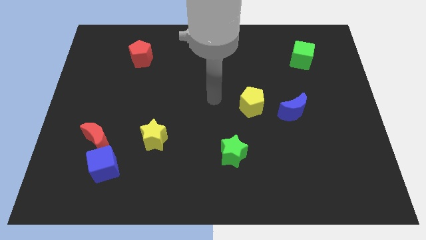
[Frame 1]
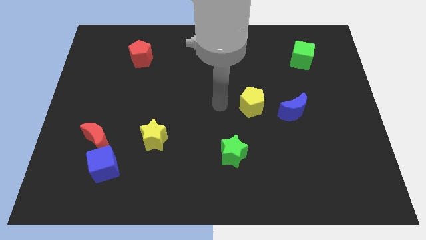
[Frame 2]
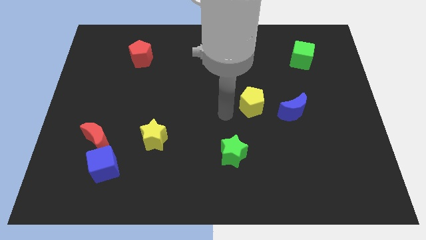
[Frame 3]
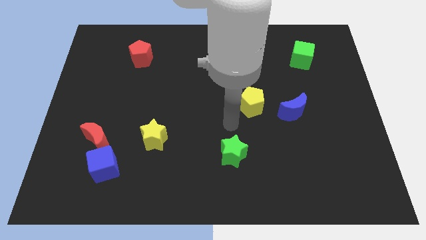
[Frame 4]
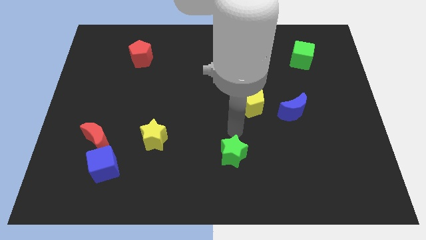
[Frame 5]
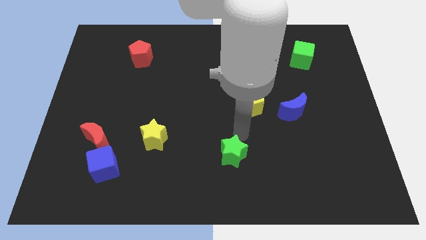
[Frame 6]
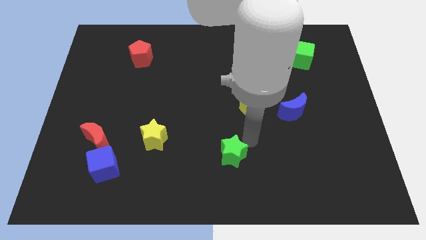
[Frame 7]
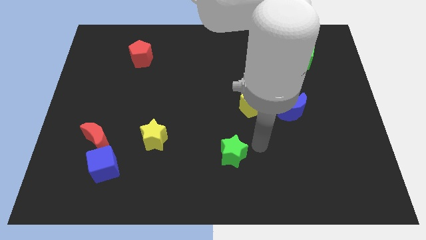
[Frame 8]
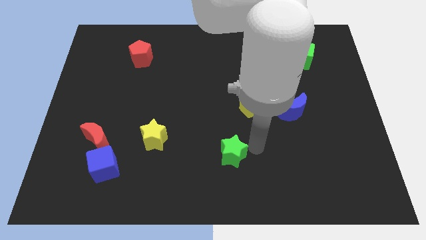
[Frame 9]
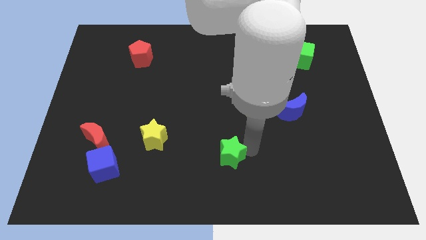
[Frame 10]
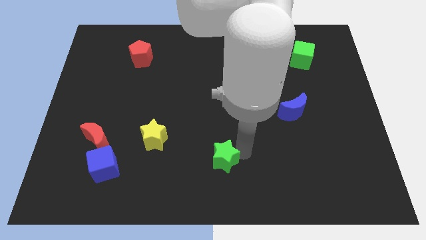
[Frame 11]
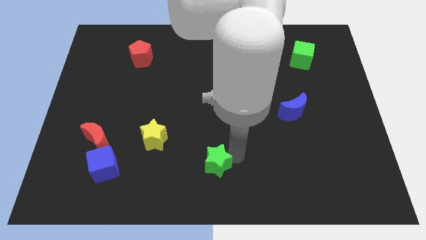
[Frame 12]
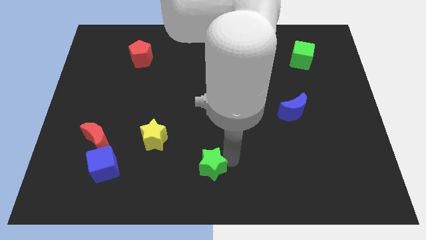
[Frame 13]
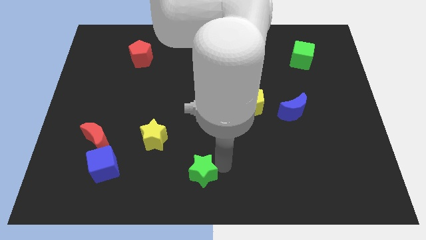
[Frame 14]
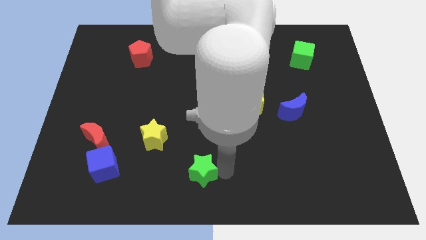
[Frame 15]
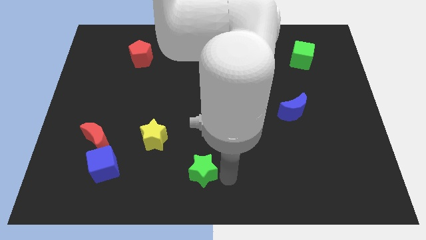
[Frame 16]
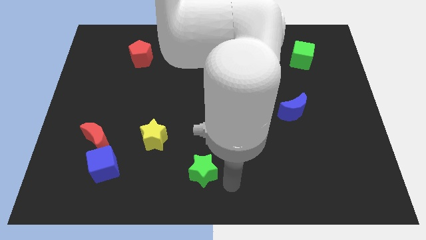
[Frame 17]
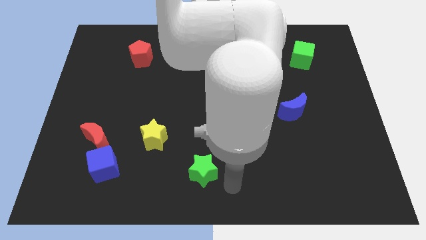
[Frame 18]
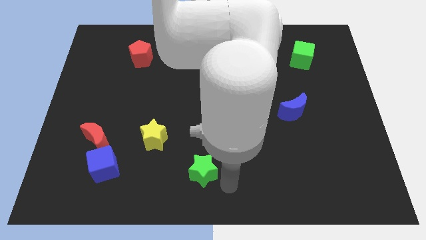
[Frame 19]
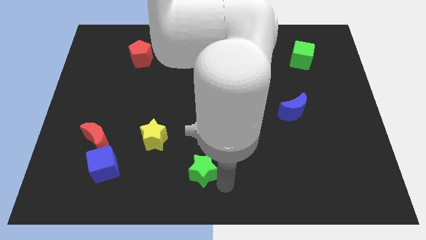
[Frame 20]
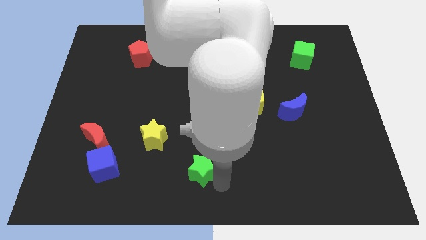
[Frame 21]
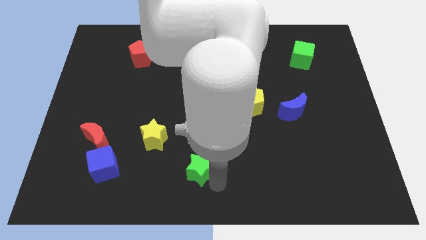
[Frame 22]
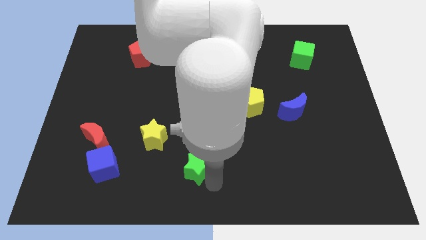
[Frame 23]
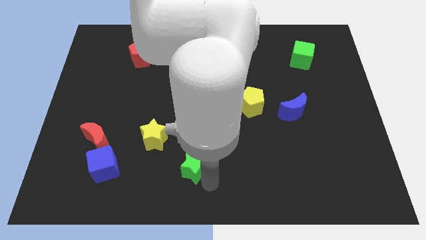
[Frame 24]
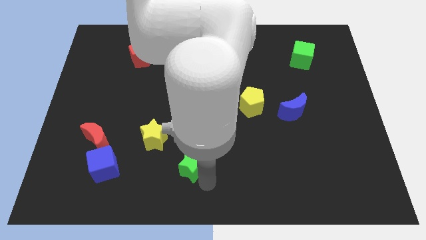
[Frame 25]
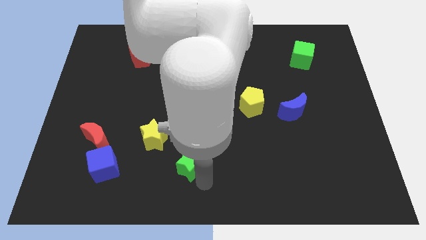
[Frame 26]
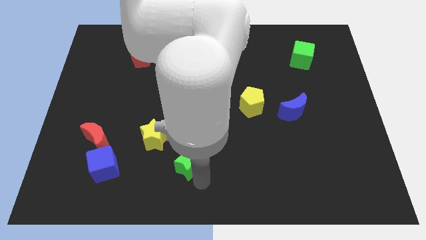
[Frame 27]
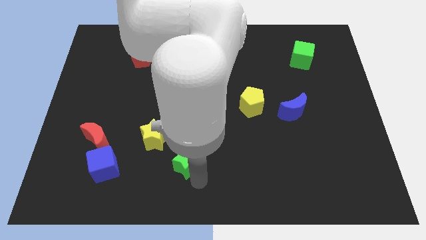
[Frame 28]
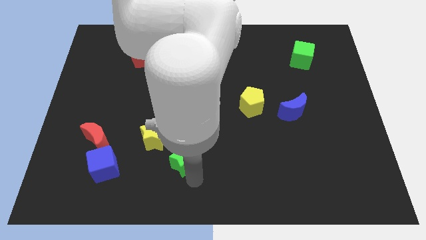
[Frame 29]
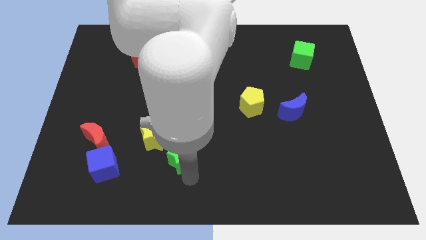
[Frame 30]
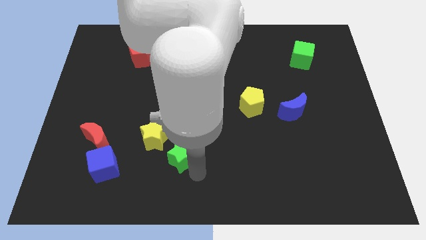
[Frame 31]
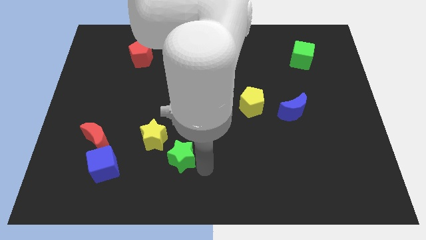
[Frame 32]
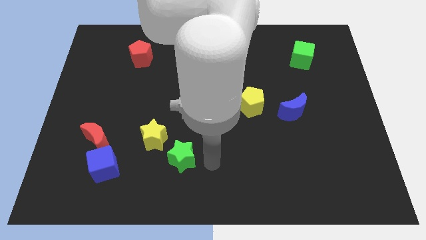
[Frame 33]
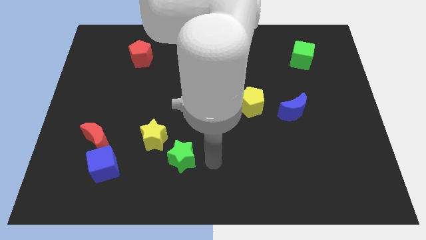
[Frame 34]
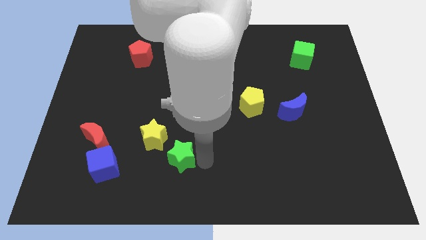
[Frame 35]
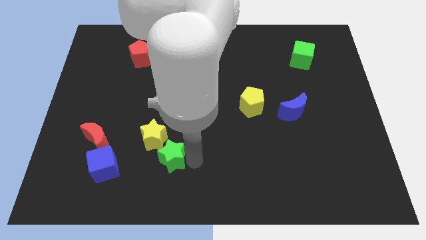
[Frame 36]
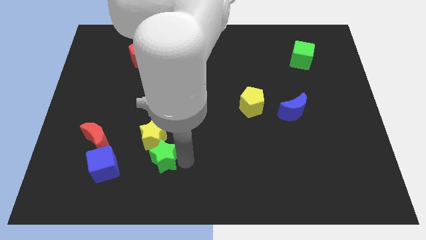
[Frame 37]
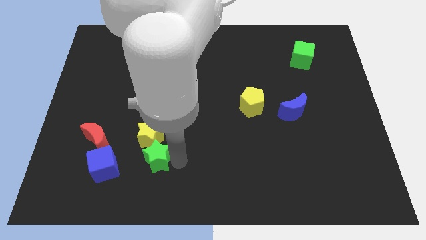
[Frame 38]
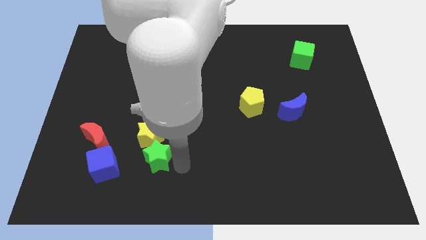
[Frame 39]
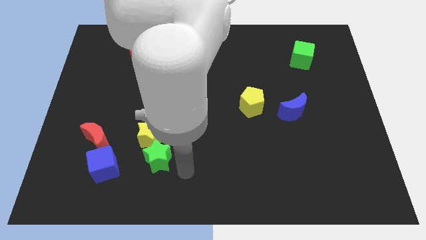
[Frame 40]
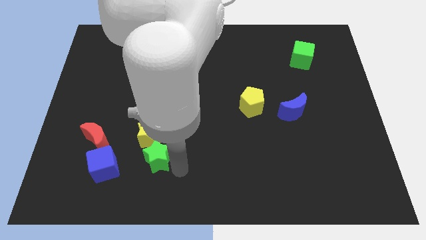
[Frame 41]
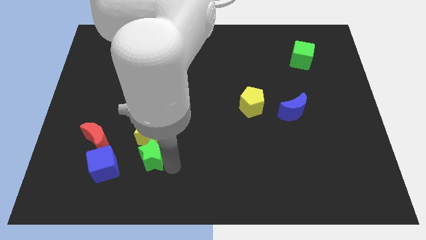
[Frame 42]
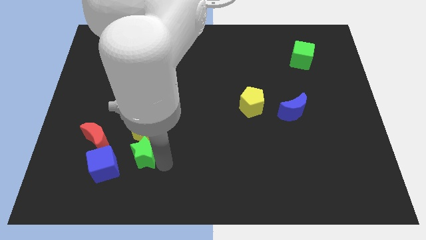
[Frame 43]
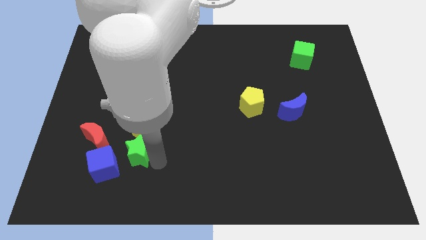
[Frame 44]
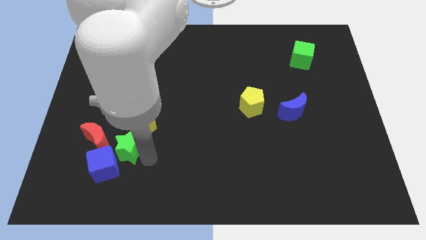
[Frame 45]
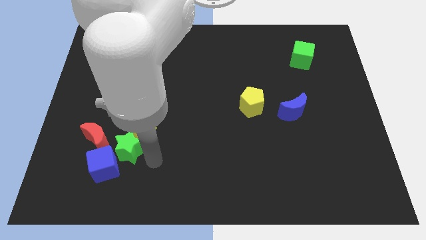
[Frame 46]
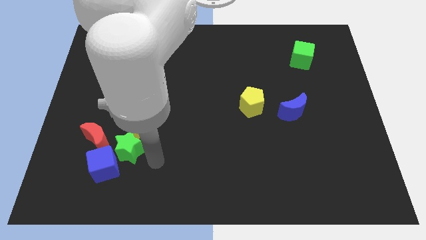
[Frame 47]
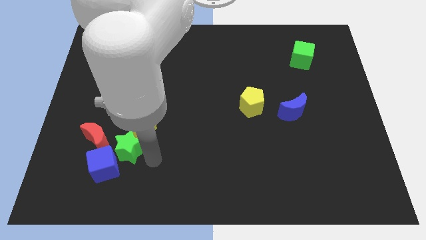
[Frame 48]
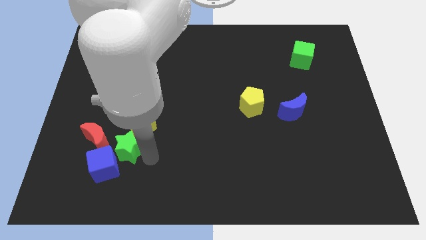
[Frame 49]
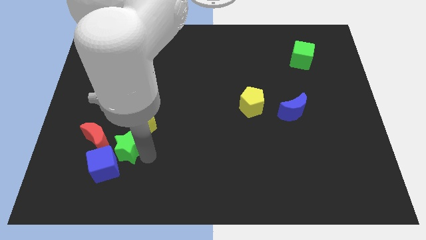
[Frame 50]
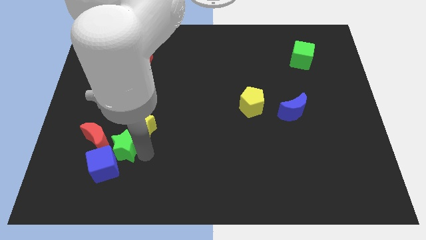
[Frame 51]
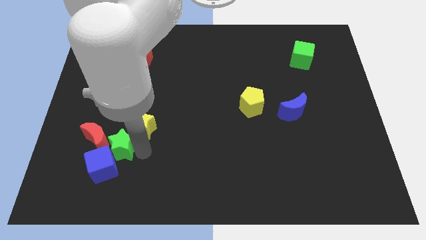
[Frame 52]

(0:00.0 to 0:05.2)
push the green star close to the red moon

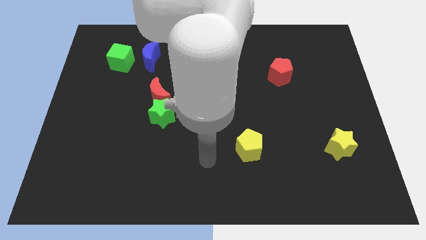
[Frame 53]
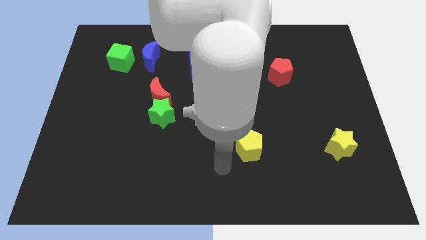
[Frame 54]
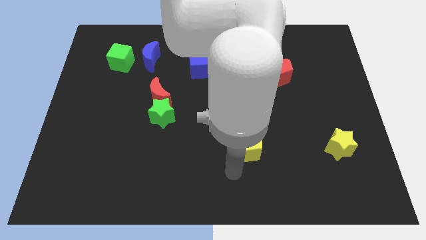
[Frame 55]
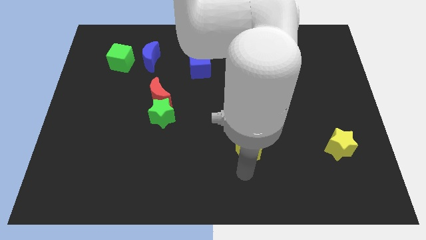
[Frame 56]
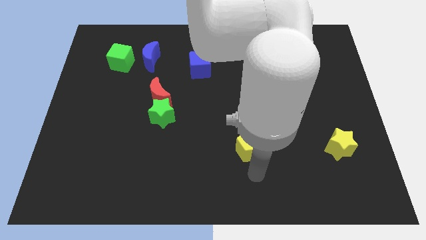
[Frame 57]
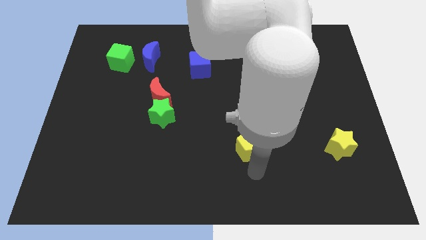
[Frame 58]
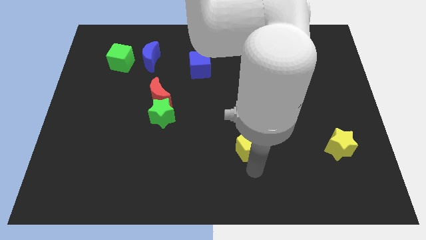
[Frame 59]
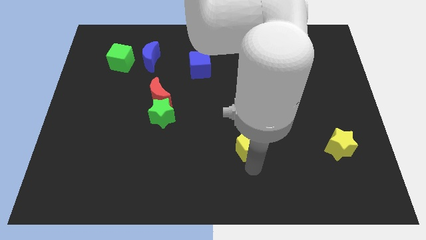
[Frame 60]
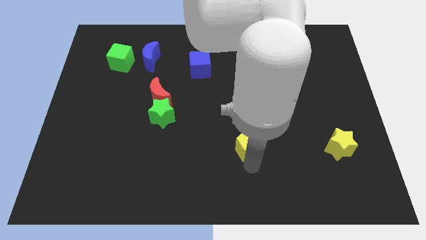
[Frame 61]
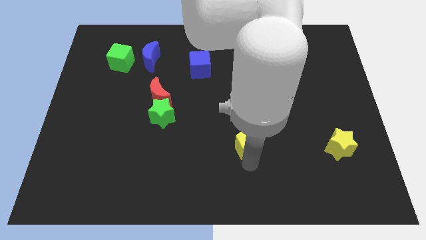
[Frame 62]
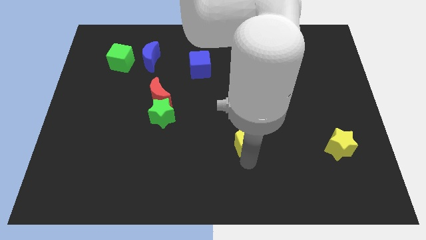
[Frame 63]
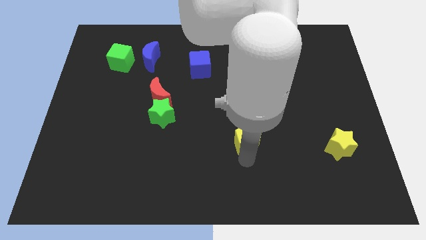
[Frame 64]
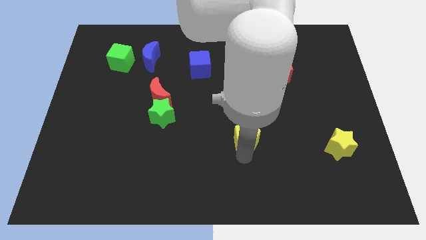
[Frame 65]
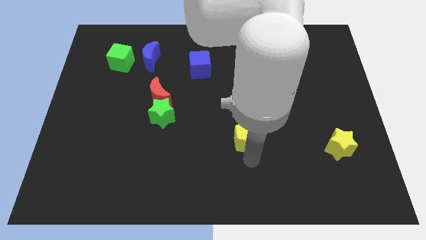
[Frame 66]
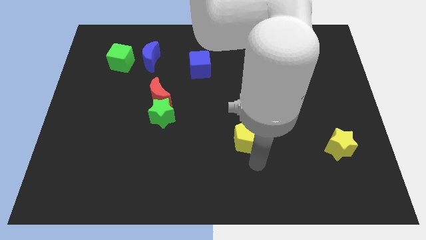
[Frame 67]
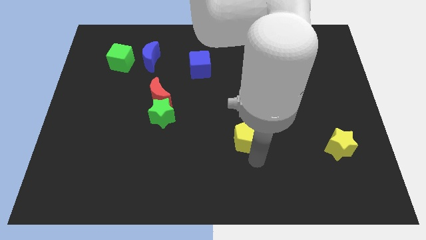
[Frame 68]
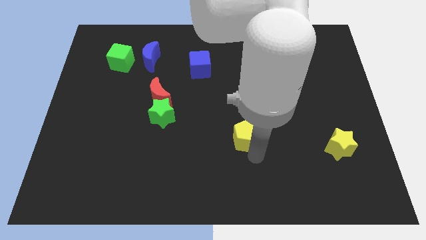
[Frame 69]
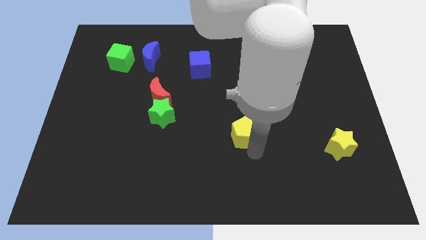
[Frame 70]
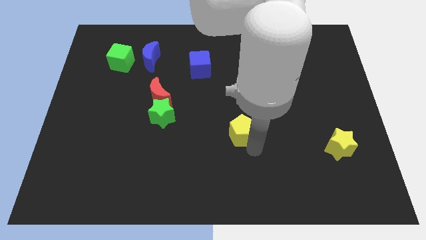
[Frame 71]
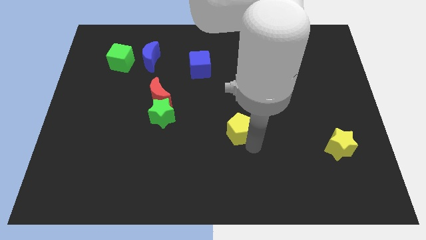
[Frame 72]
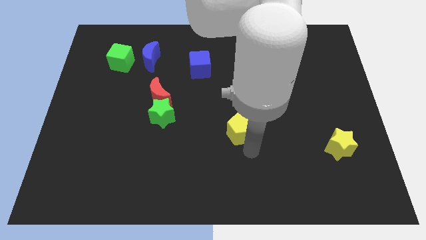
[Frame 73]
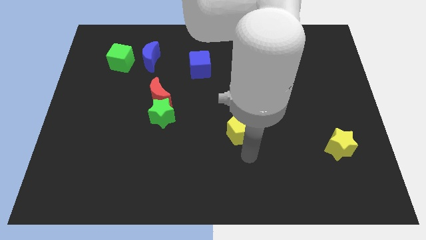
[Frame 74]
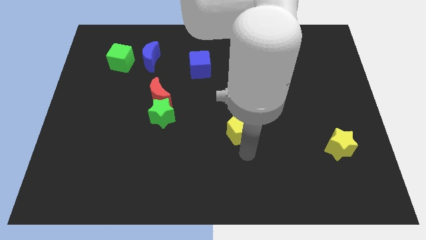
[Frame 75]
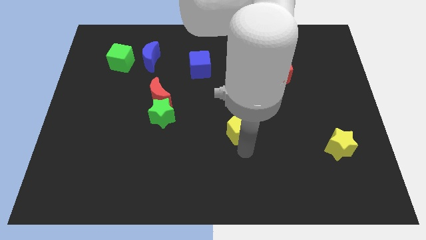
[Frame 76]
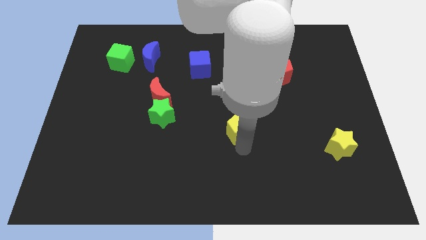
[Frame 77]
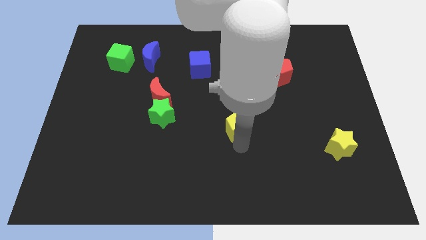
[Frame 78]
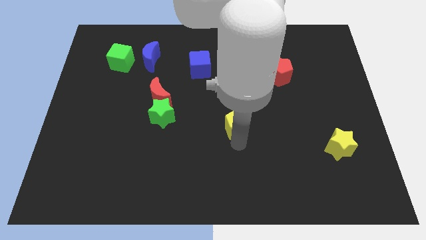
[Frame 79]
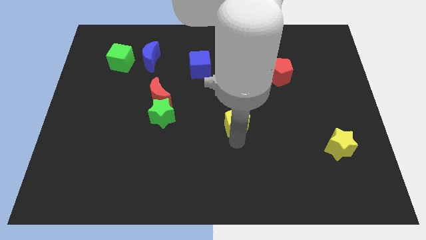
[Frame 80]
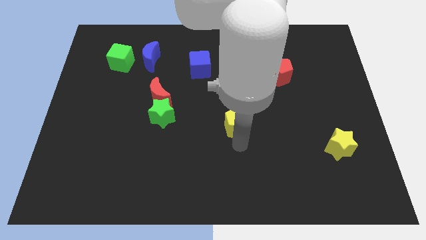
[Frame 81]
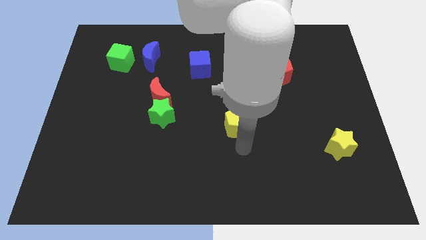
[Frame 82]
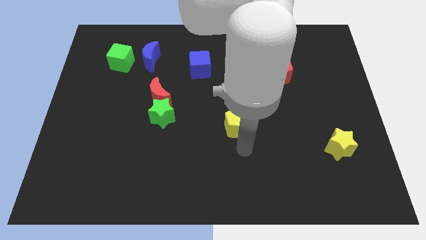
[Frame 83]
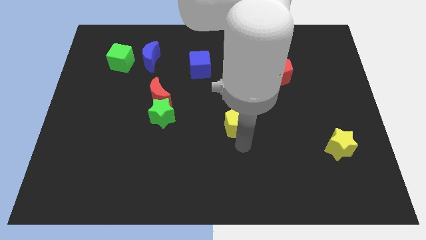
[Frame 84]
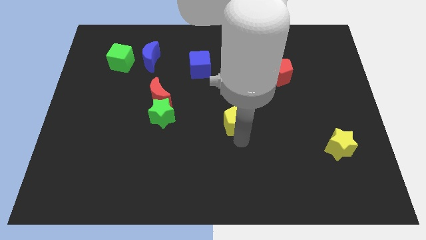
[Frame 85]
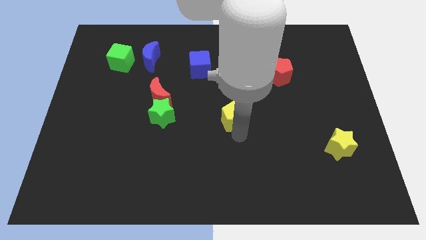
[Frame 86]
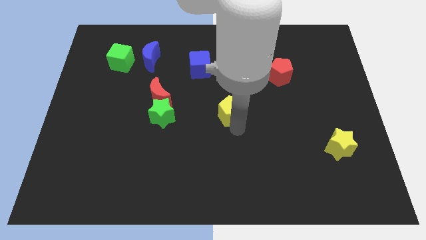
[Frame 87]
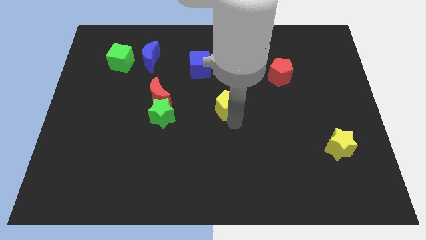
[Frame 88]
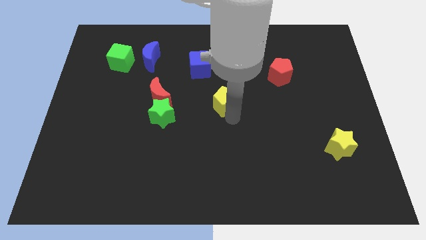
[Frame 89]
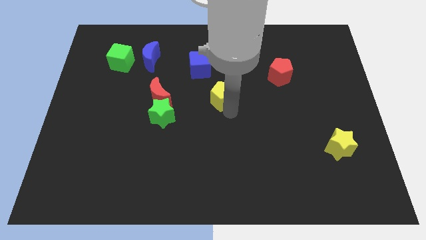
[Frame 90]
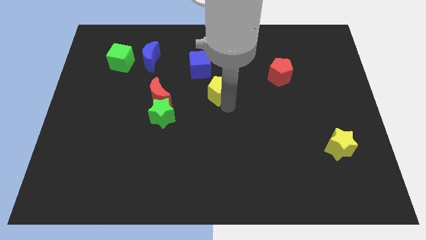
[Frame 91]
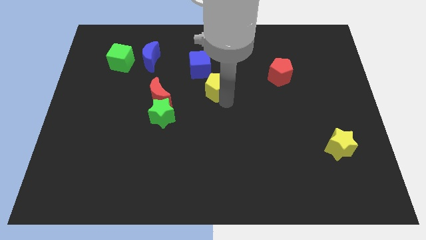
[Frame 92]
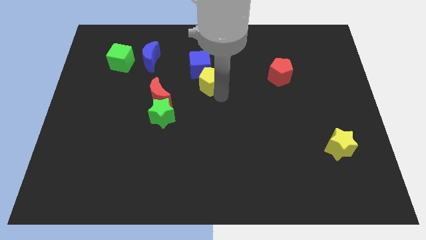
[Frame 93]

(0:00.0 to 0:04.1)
move the yellow pentagon to the blue cube
